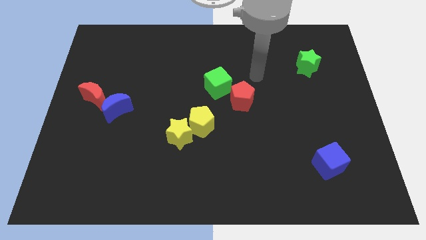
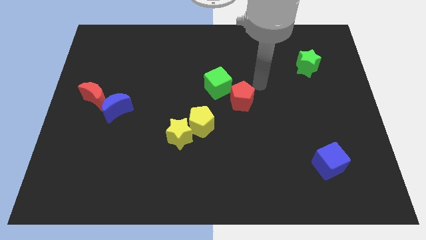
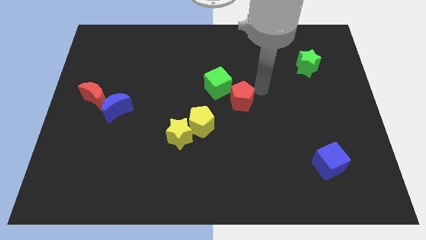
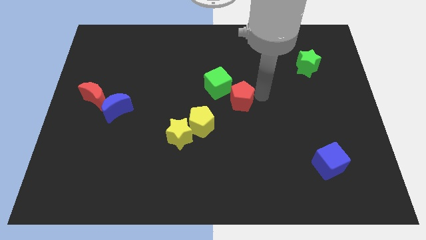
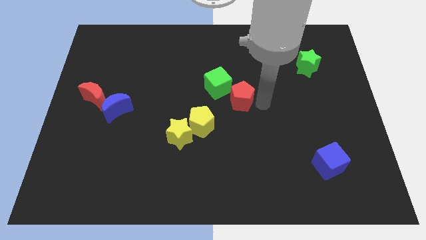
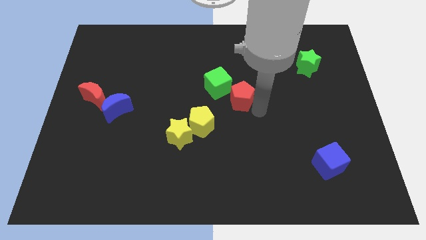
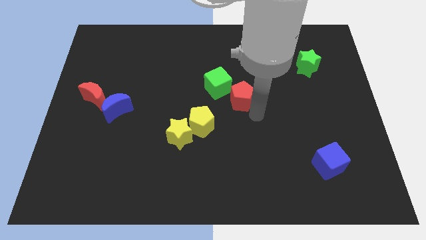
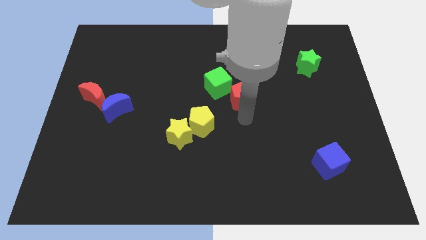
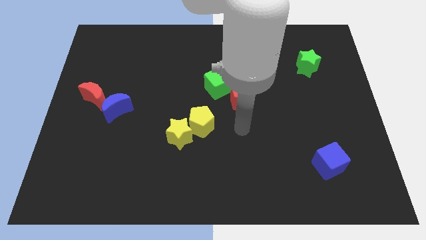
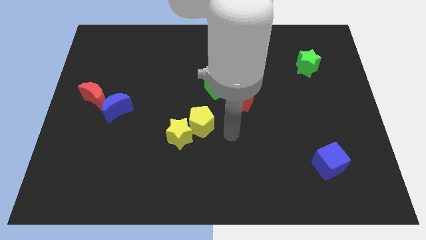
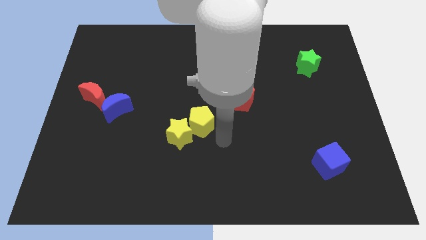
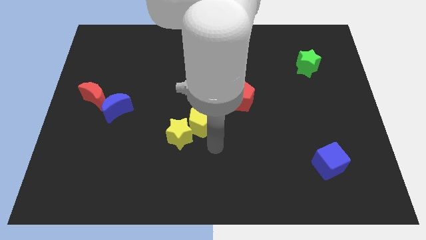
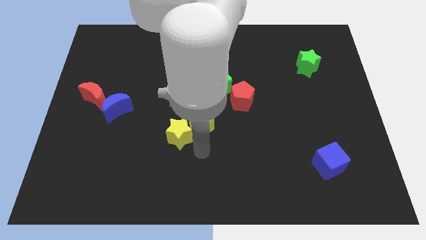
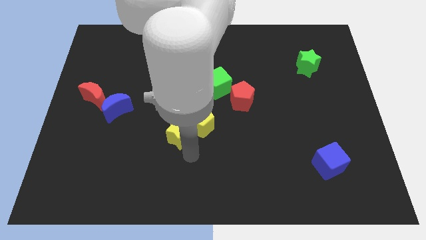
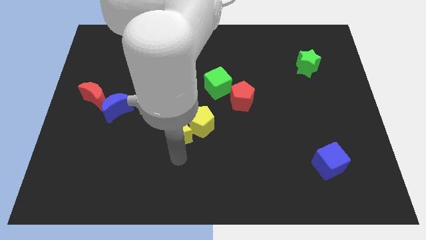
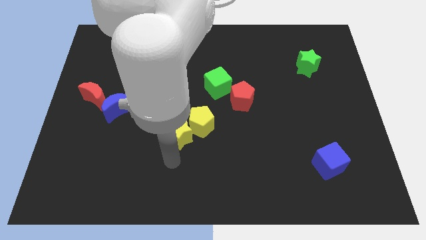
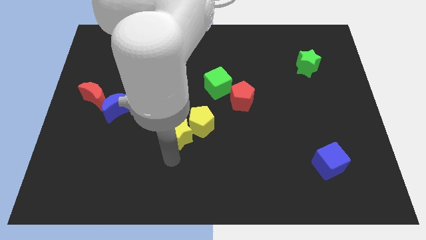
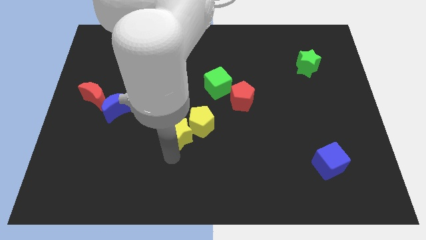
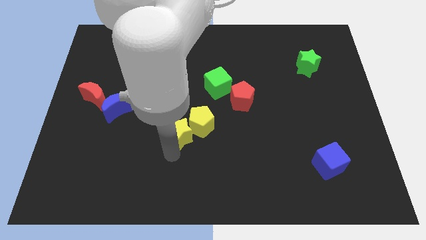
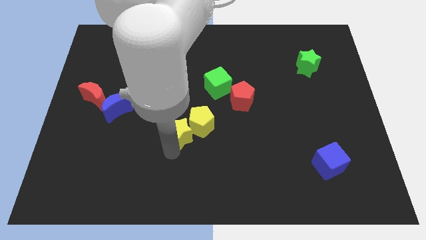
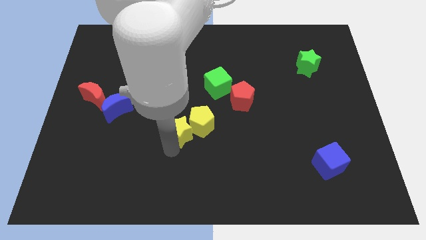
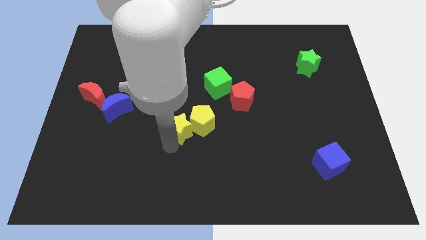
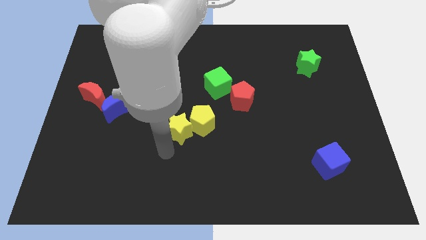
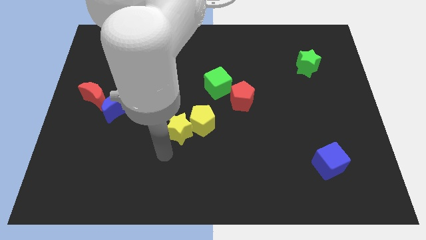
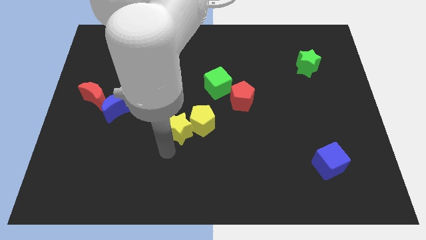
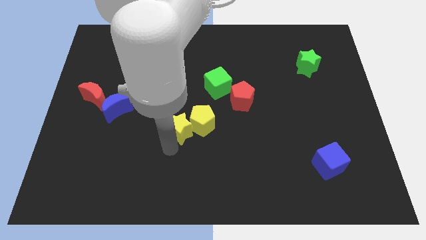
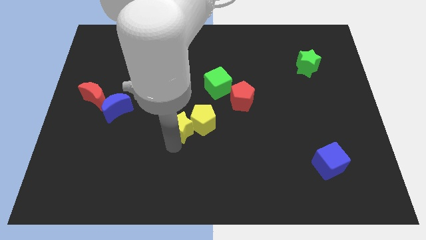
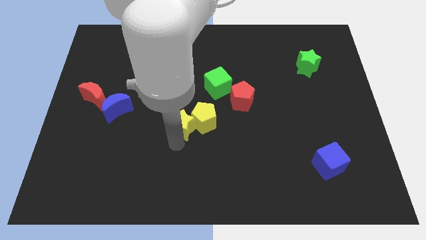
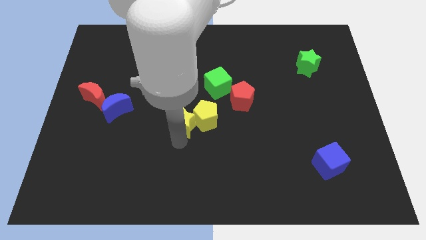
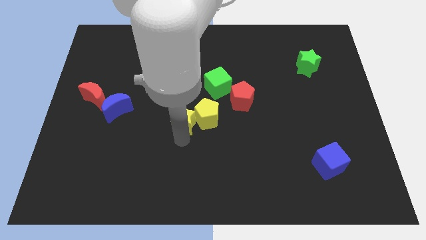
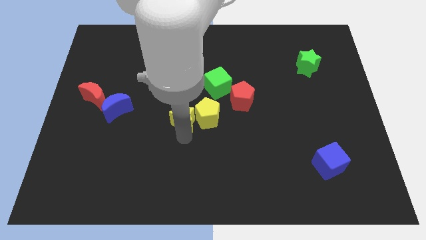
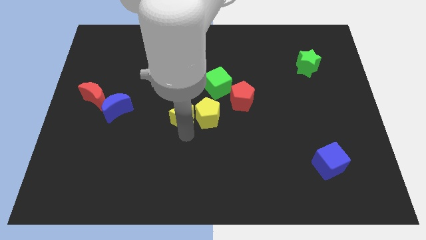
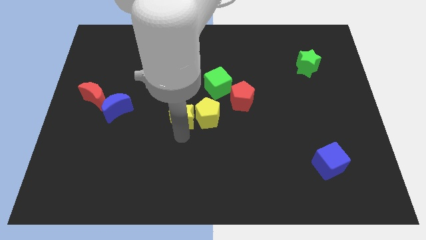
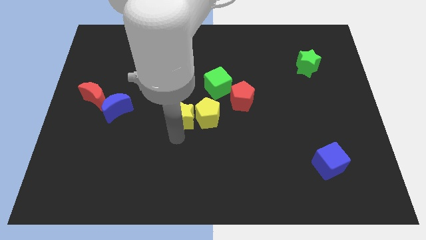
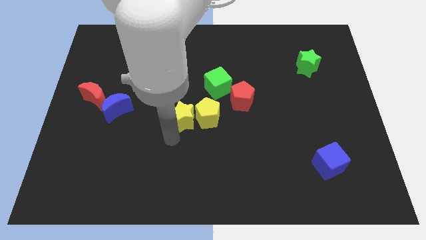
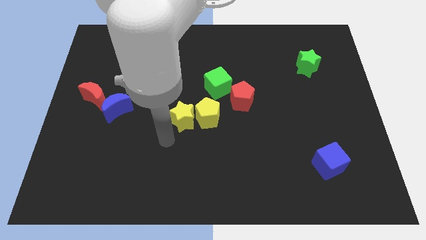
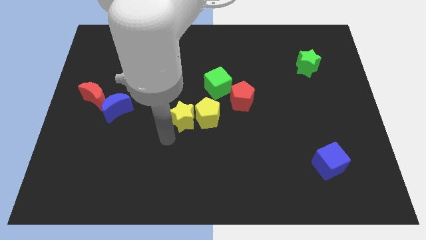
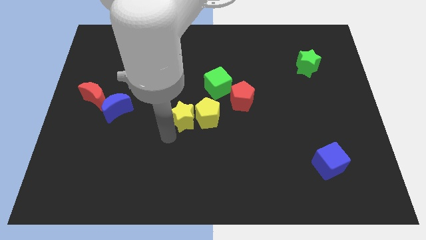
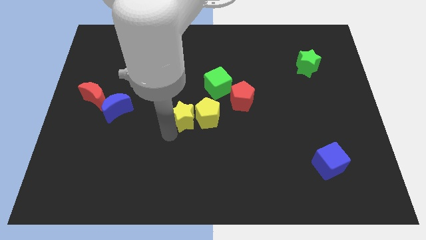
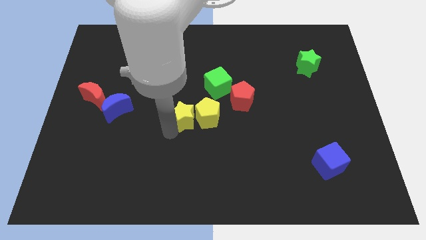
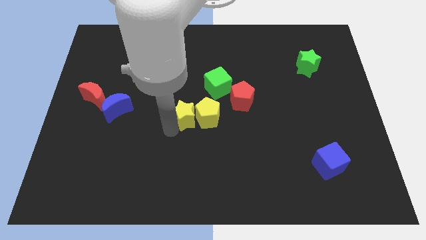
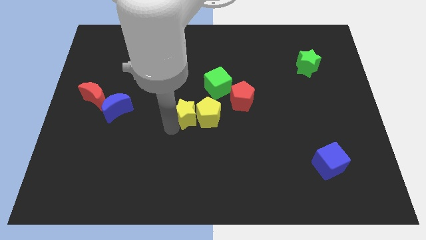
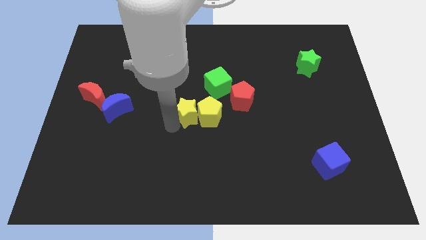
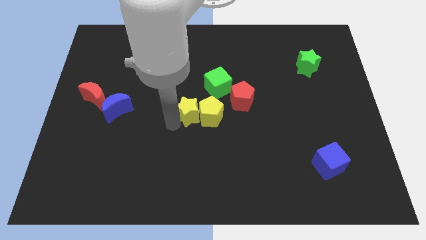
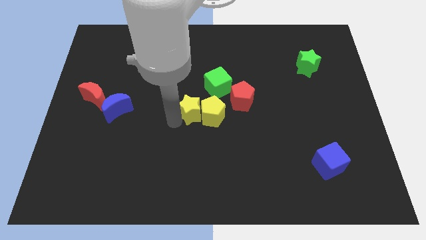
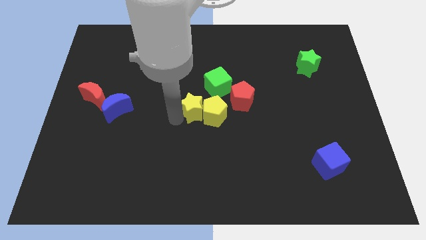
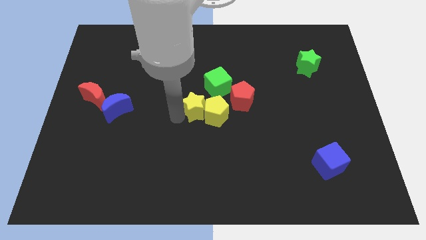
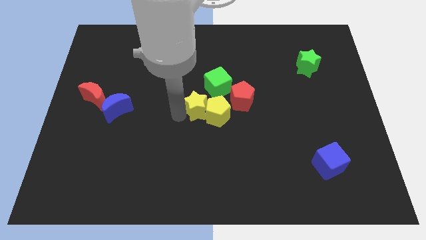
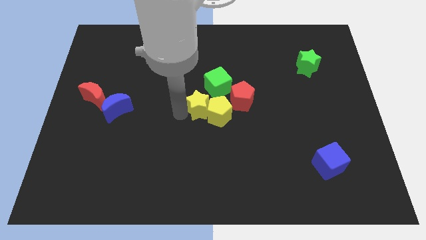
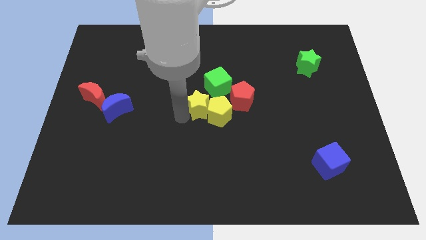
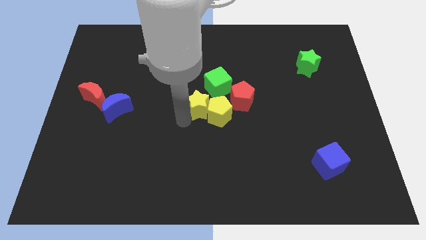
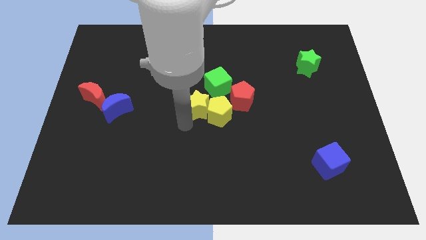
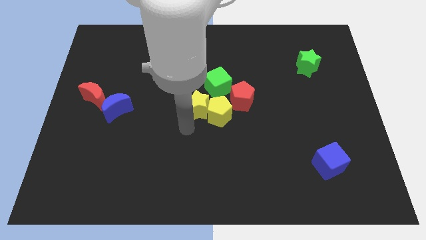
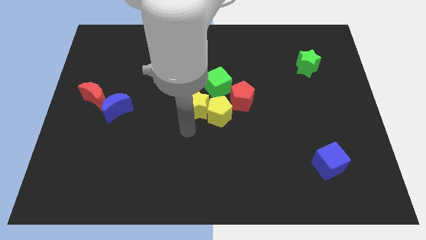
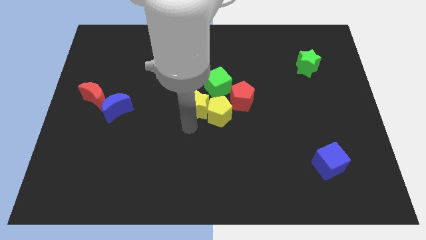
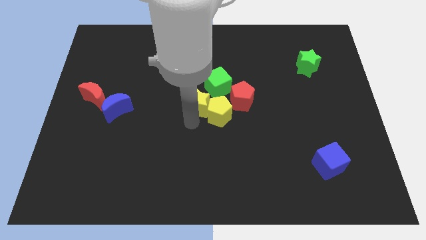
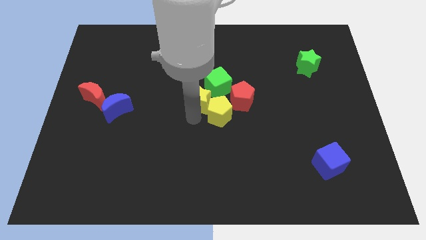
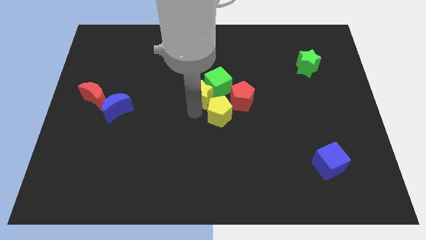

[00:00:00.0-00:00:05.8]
push the yellow star close to the green cube

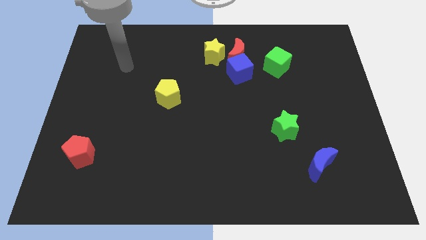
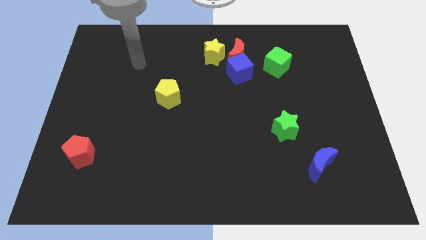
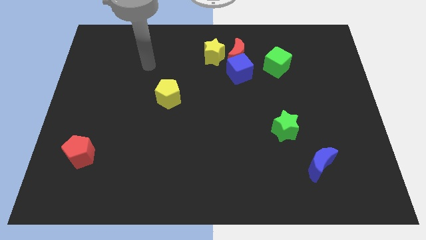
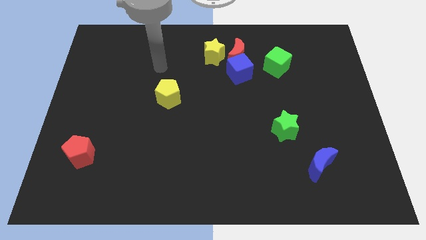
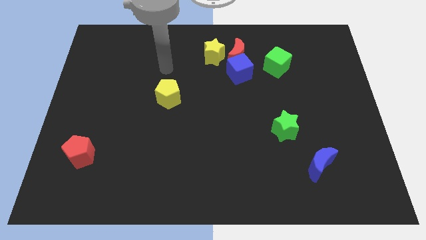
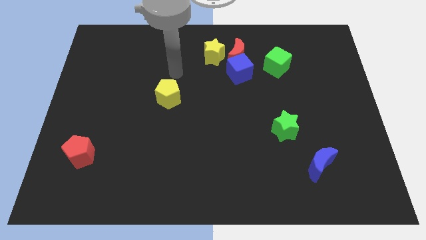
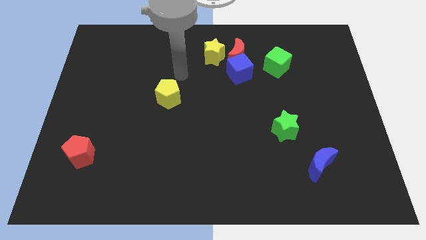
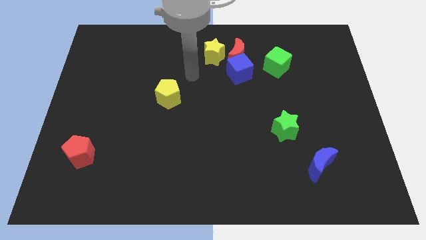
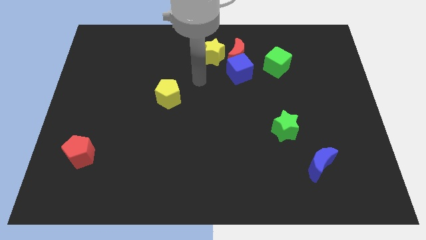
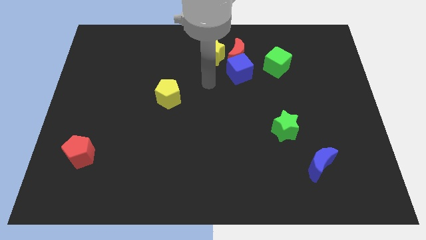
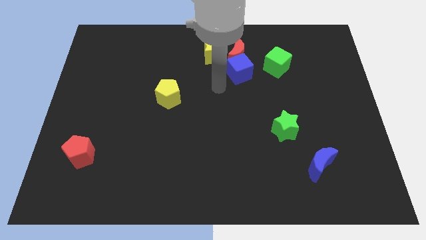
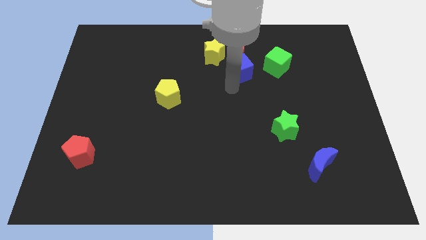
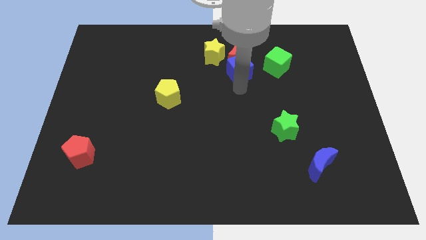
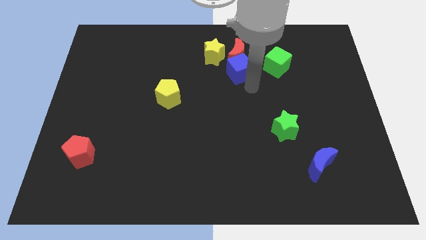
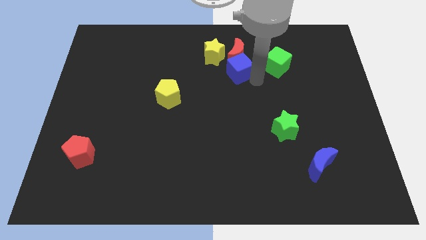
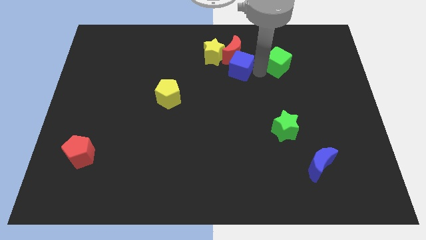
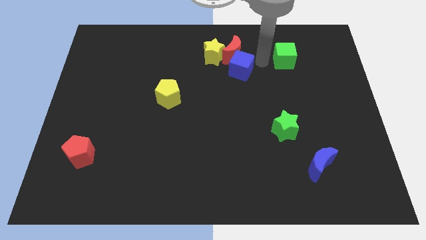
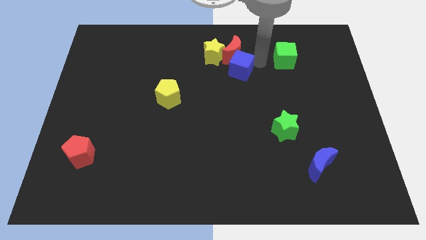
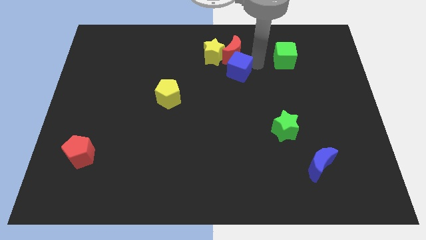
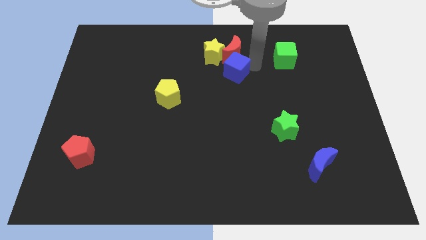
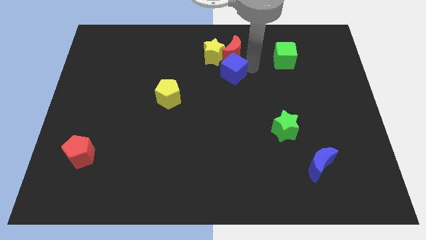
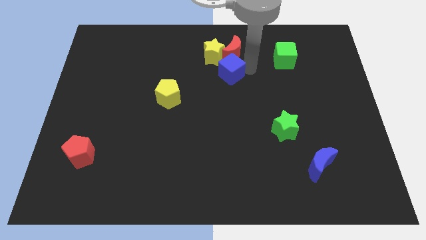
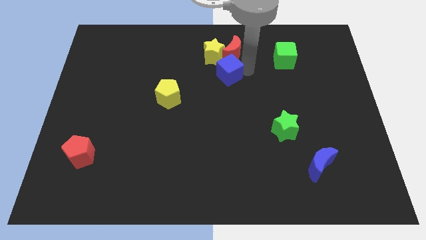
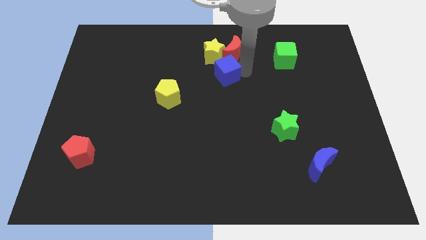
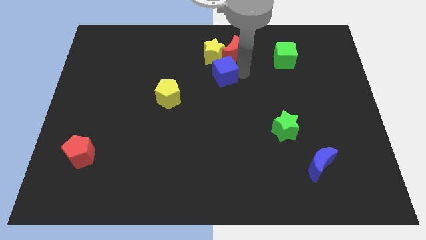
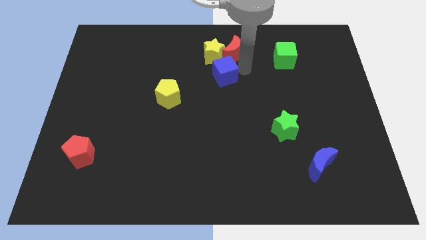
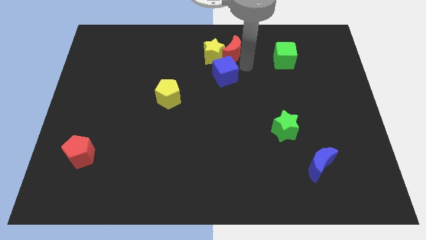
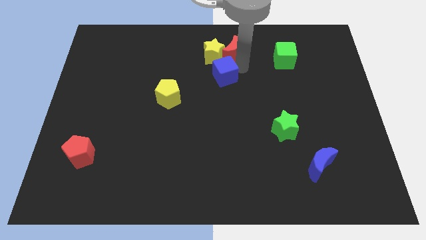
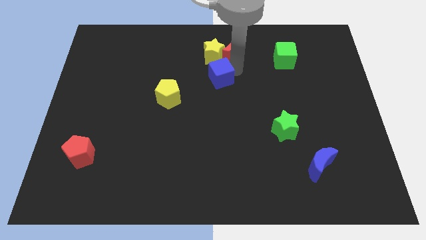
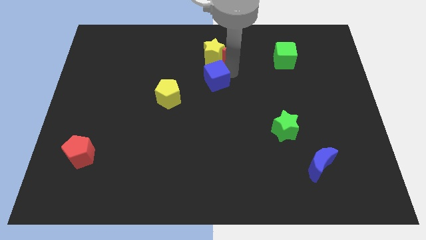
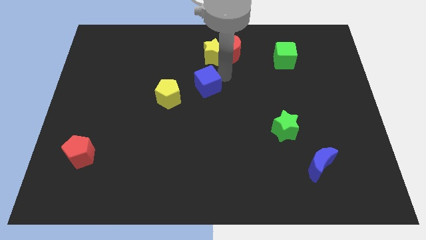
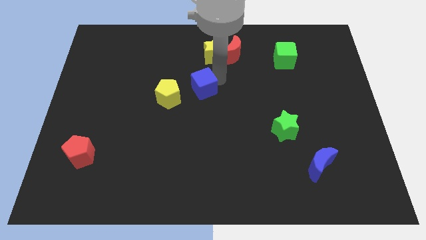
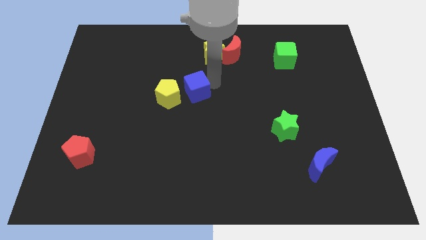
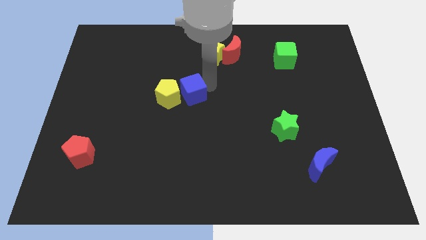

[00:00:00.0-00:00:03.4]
move the blue cube to the yellow pentagon
